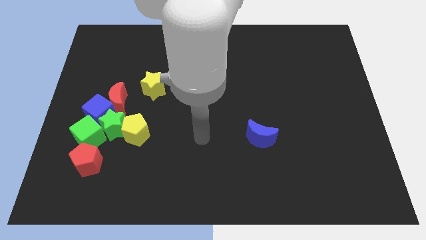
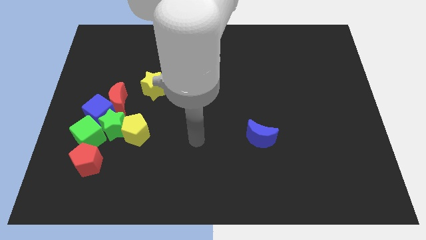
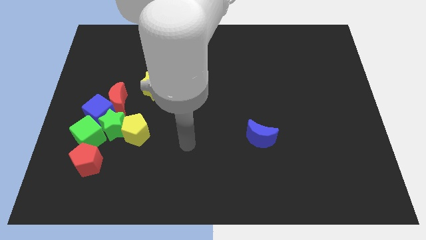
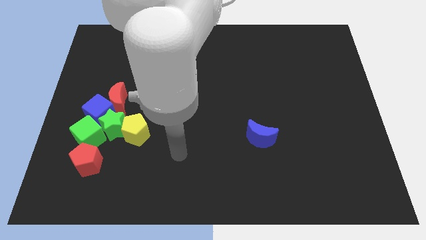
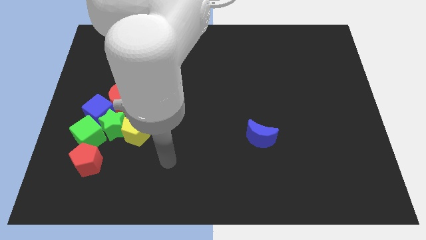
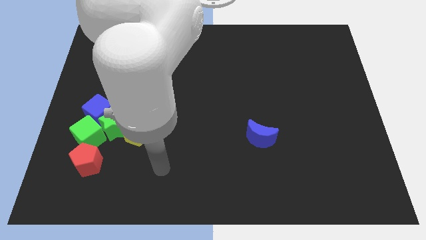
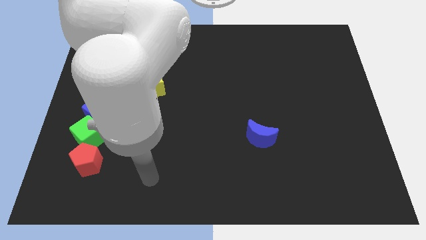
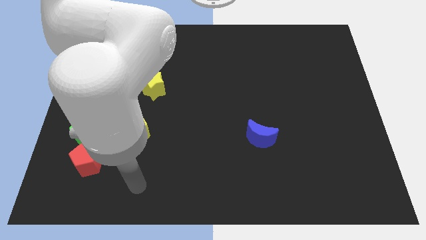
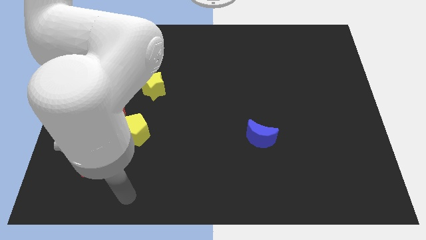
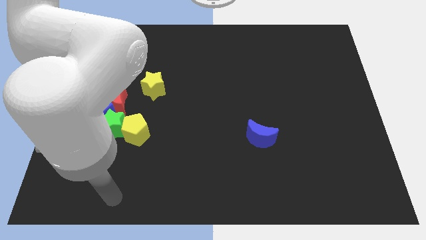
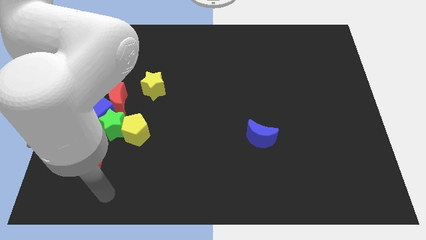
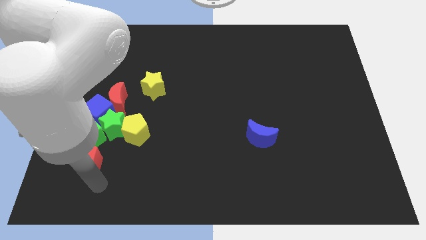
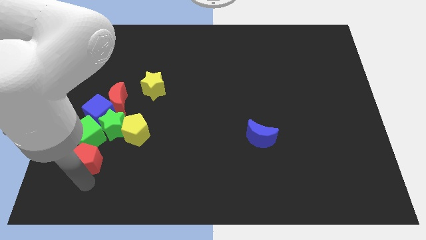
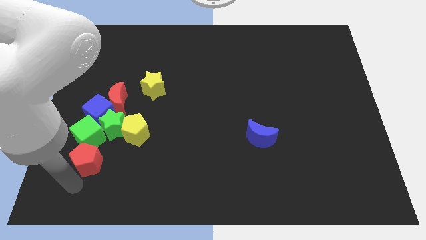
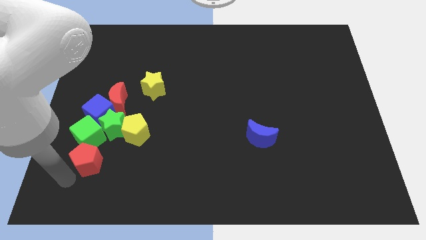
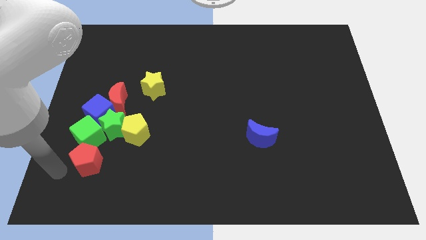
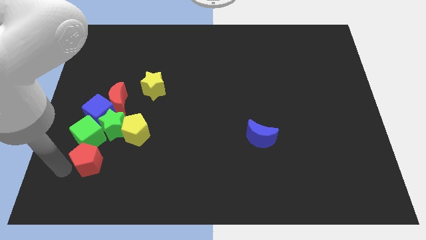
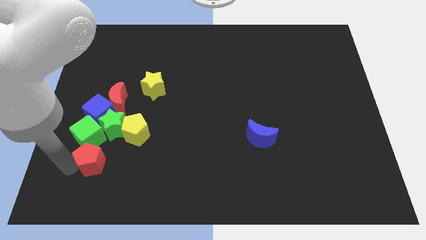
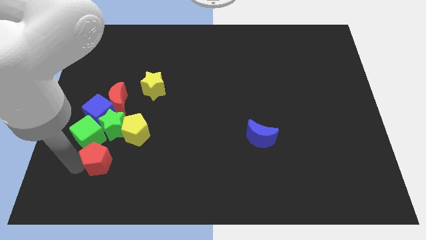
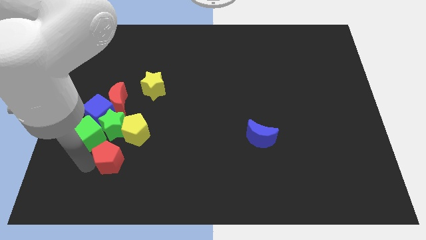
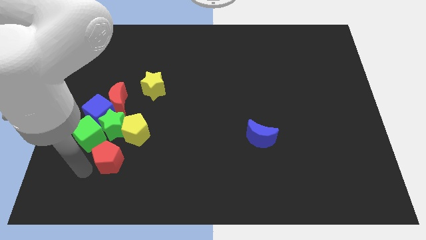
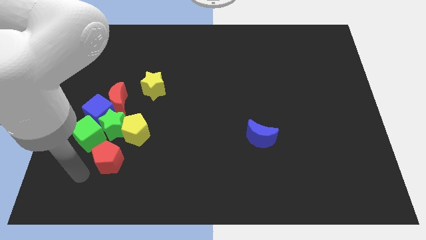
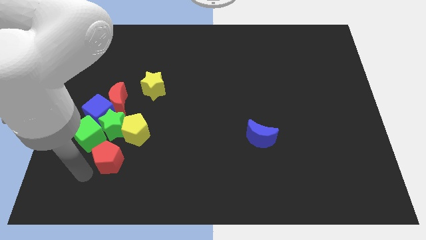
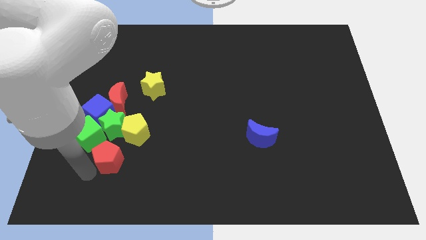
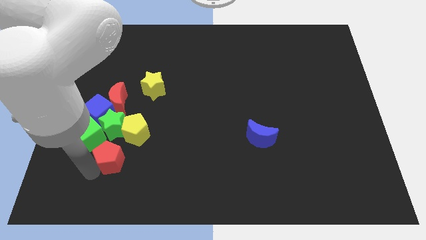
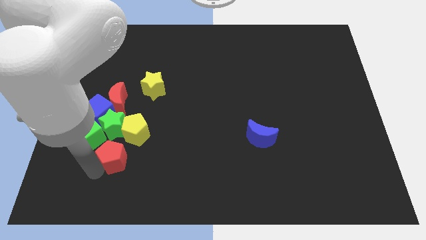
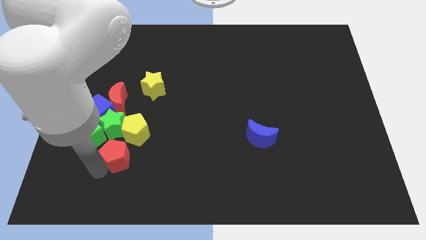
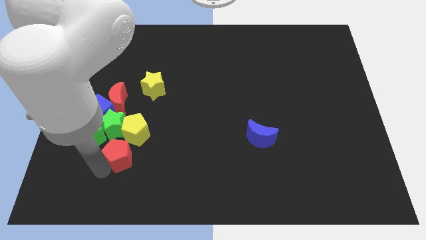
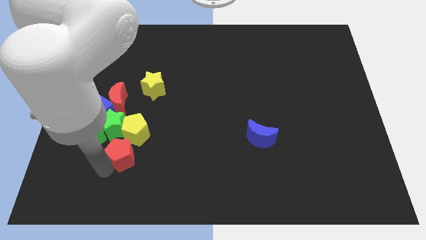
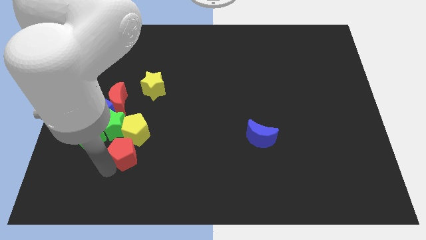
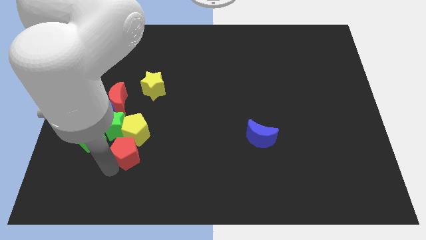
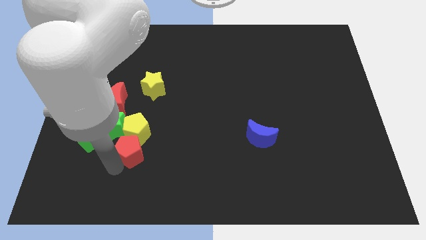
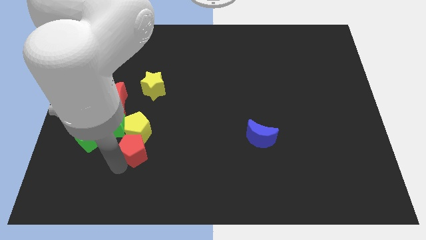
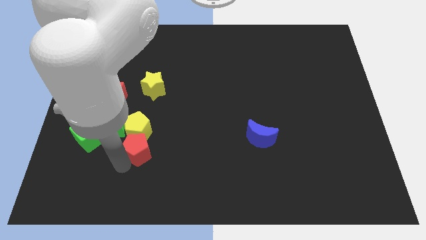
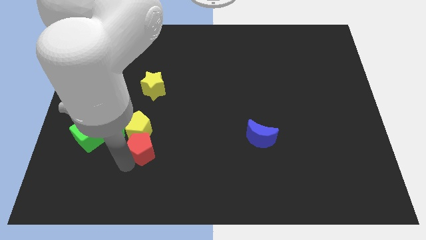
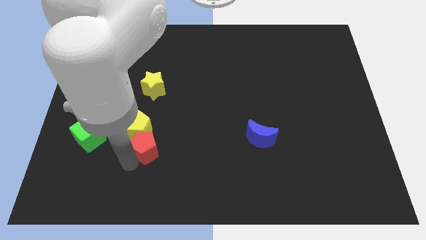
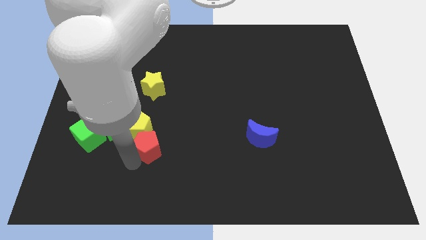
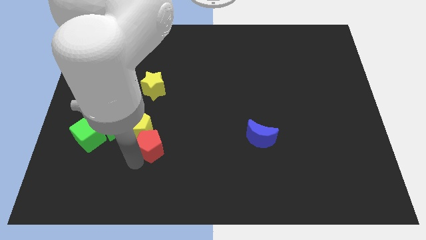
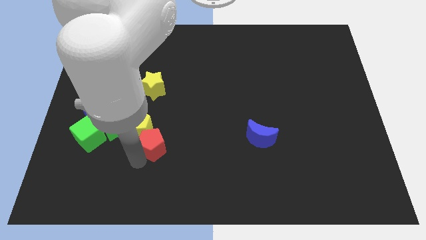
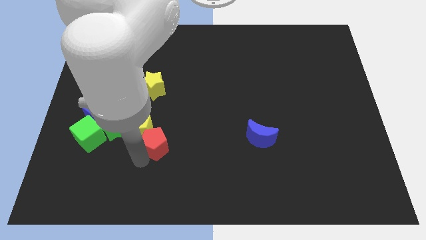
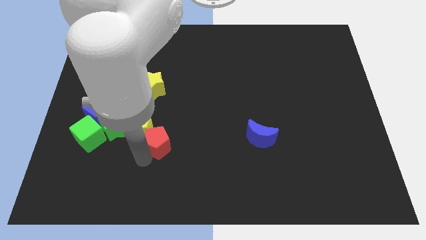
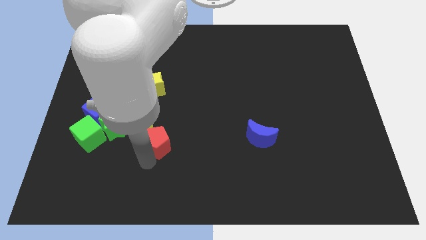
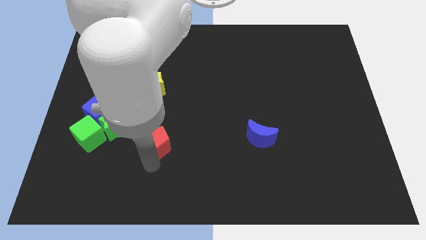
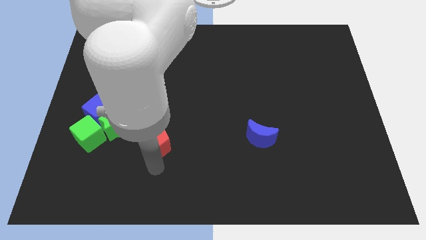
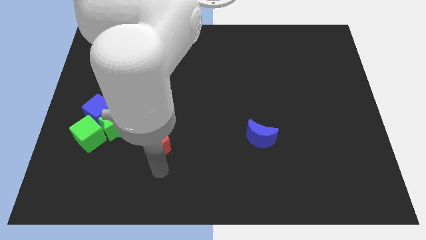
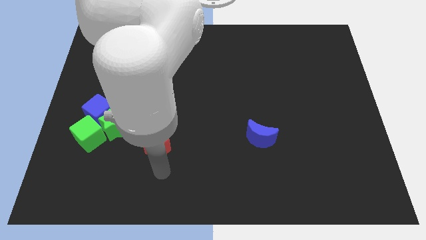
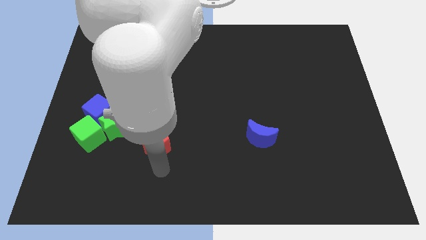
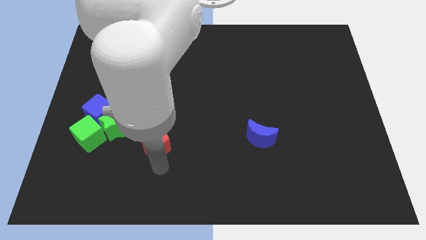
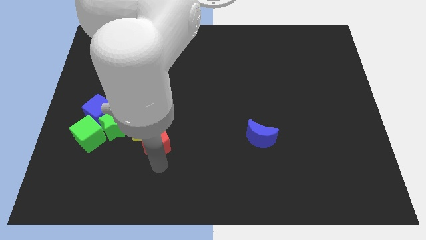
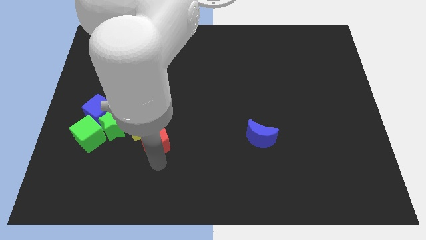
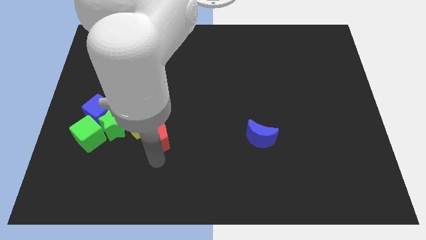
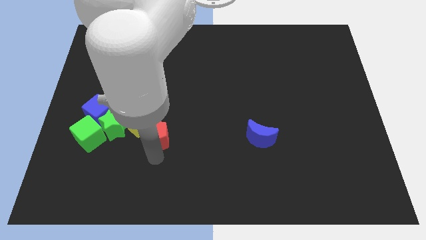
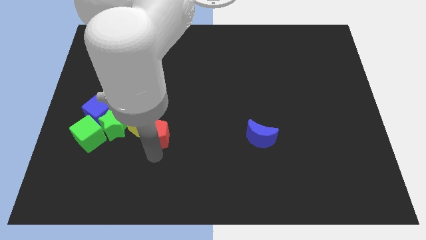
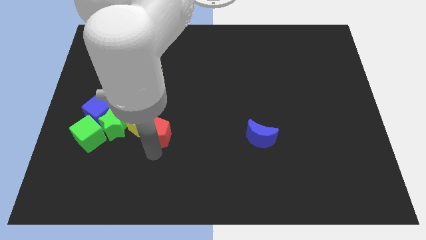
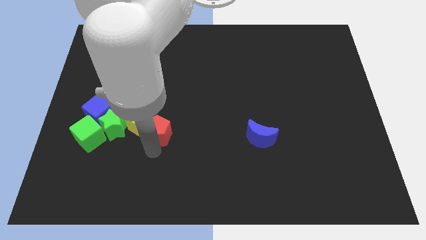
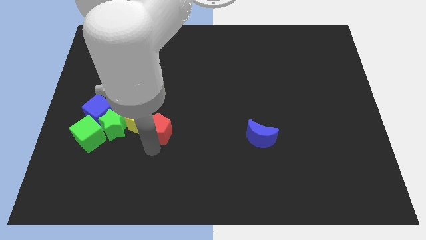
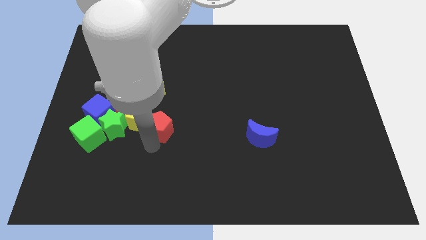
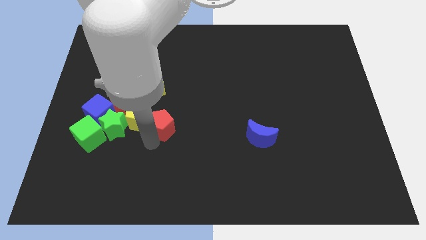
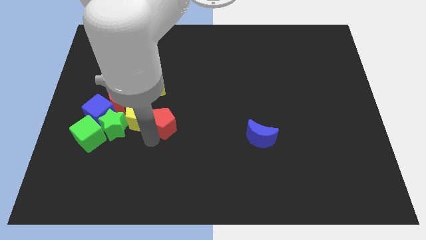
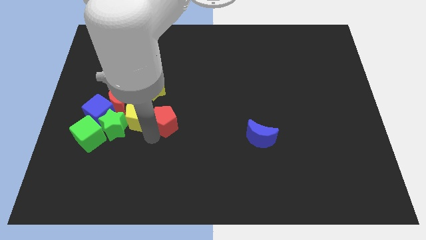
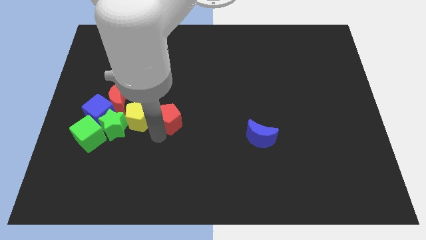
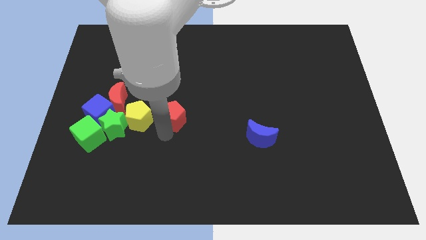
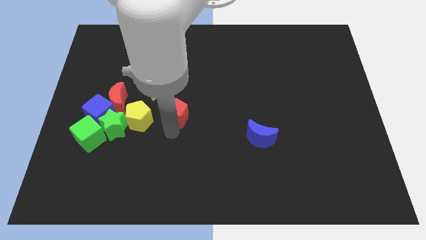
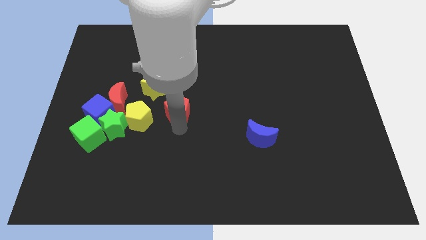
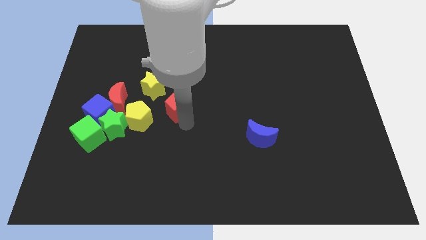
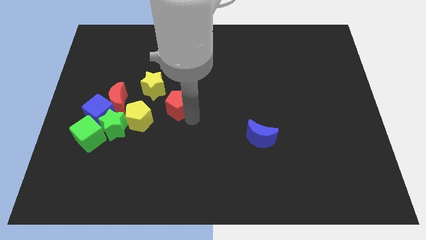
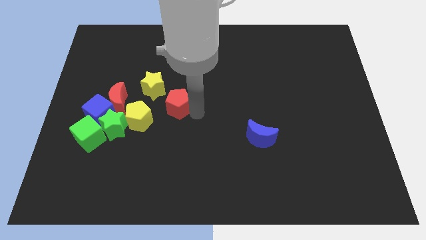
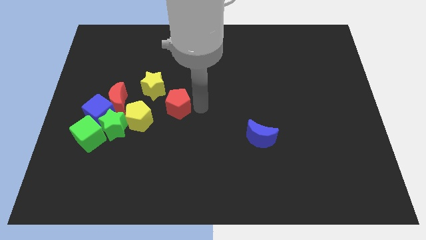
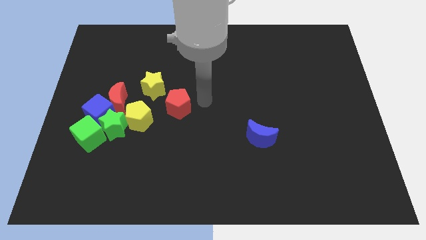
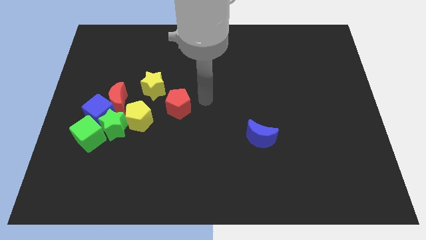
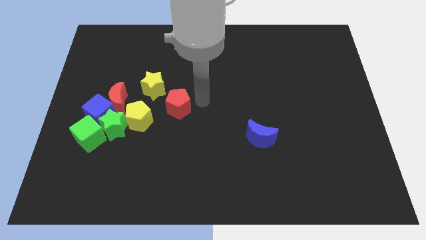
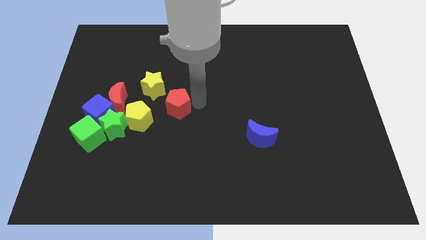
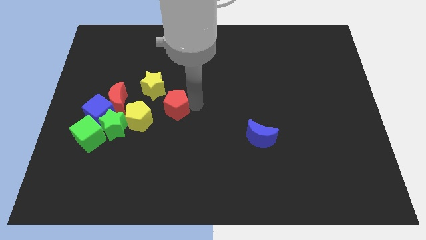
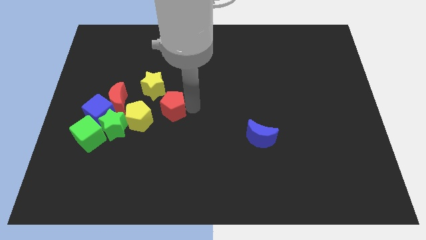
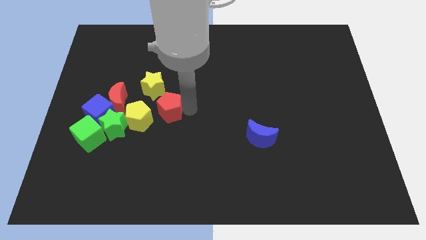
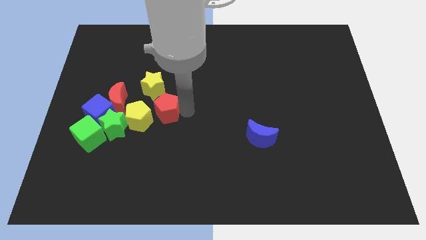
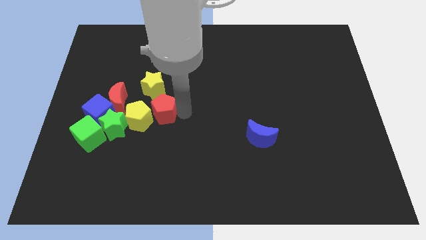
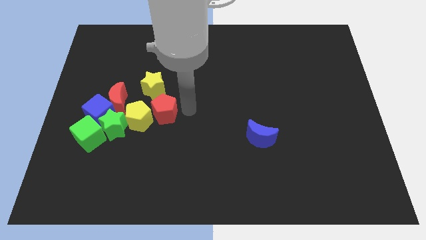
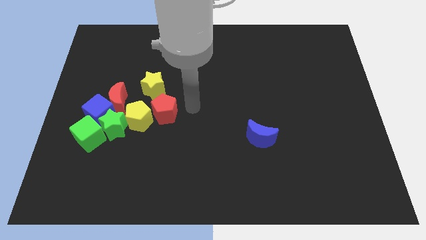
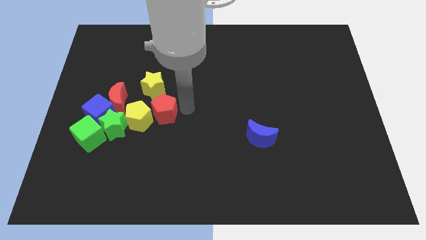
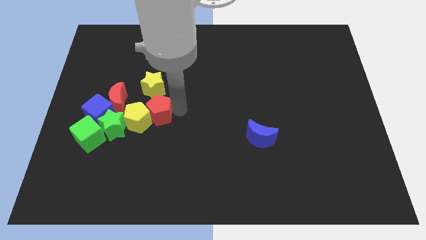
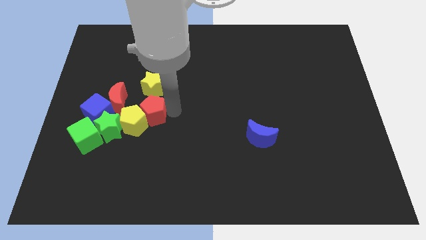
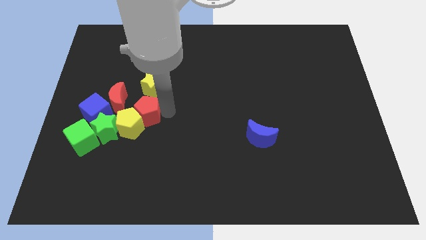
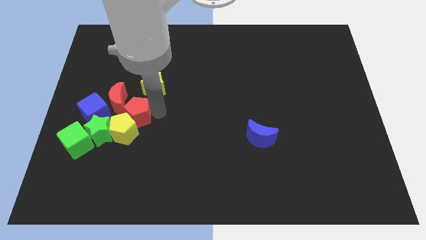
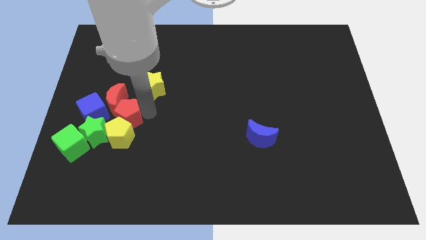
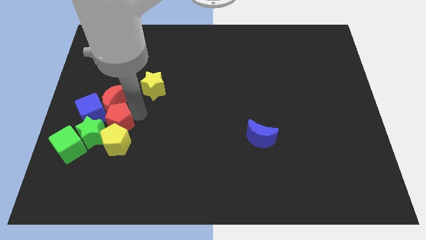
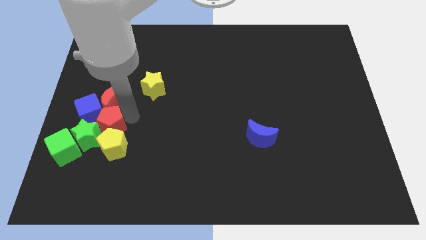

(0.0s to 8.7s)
put the red pentagon to the green star
